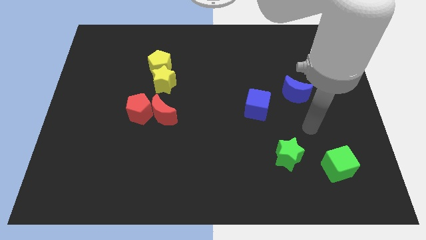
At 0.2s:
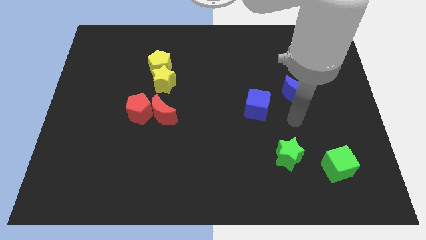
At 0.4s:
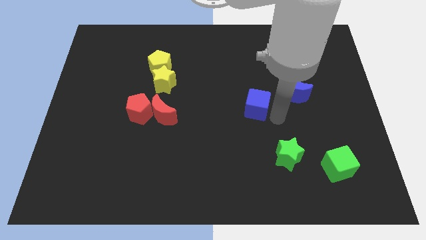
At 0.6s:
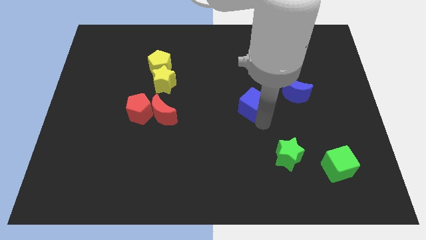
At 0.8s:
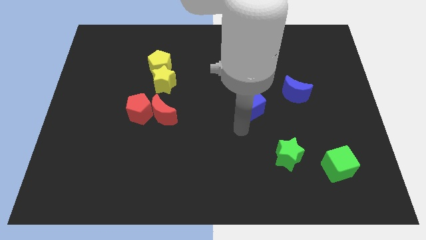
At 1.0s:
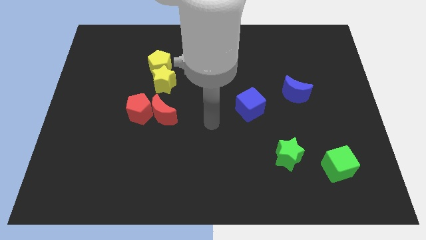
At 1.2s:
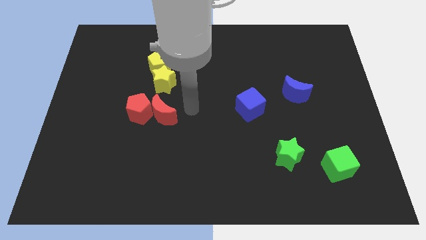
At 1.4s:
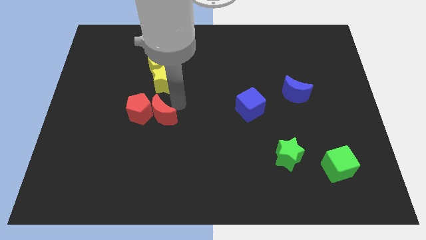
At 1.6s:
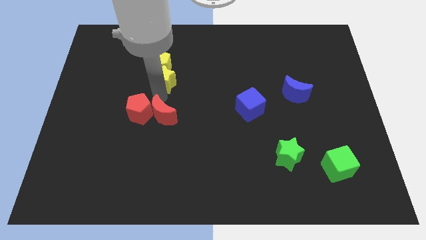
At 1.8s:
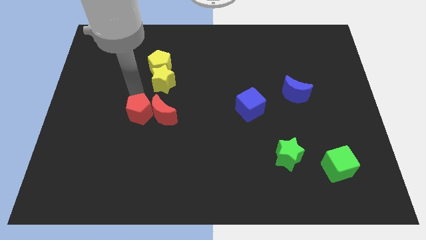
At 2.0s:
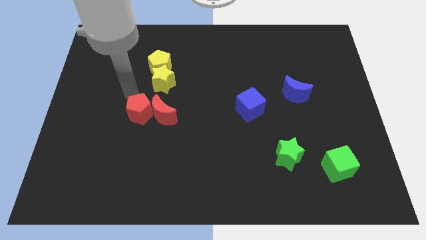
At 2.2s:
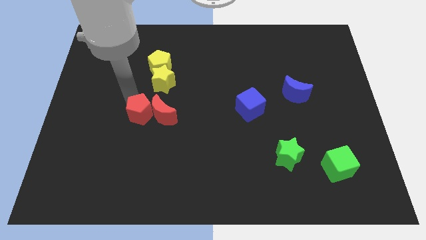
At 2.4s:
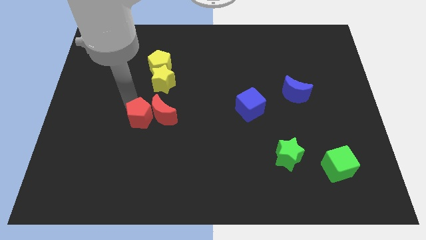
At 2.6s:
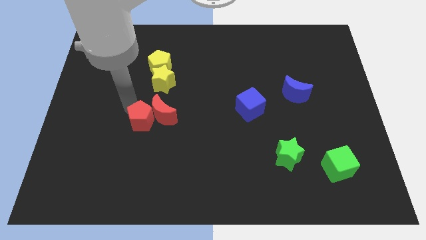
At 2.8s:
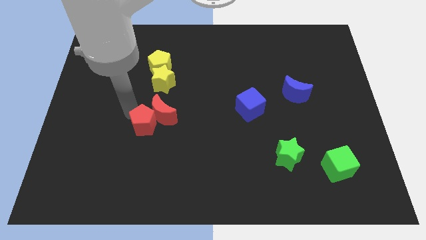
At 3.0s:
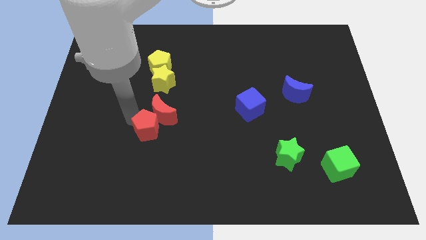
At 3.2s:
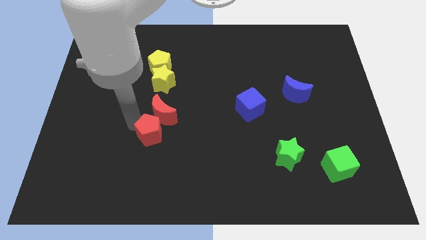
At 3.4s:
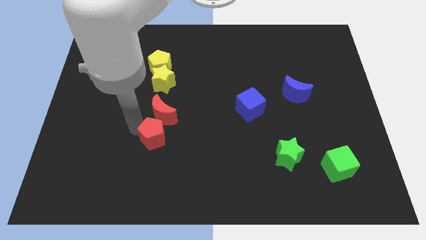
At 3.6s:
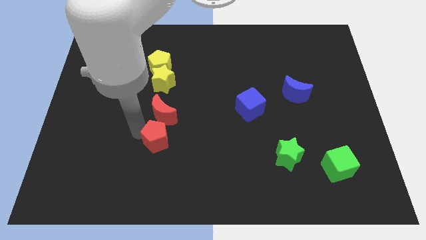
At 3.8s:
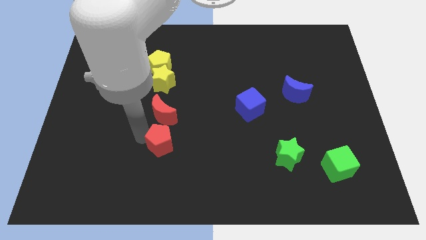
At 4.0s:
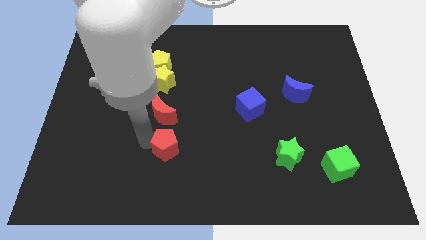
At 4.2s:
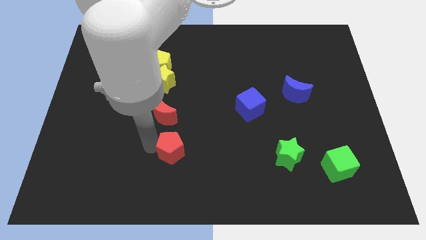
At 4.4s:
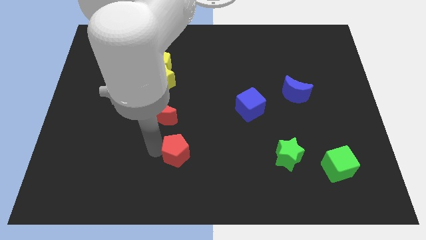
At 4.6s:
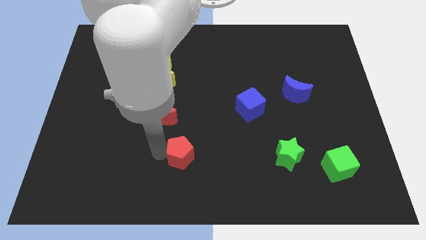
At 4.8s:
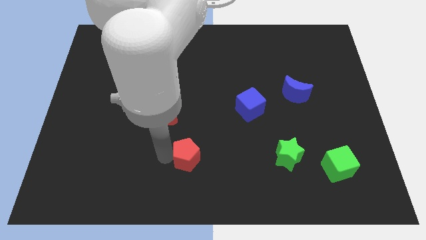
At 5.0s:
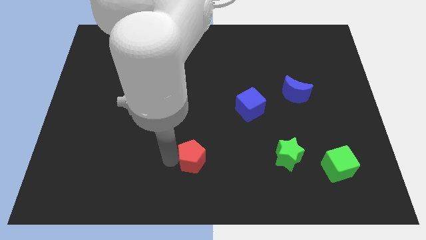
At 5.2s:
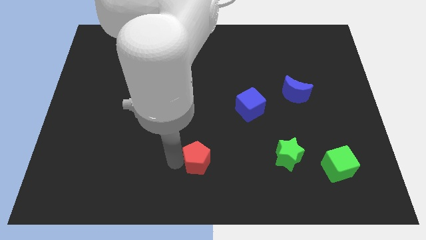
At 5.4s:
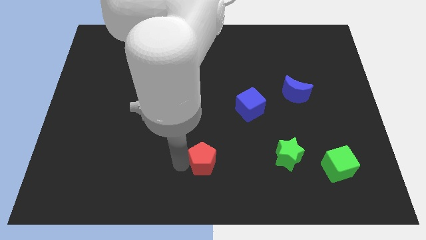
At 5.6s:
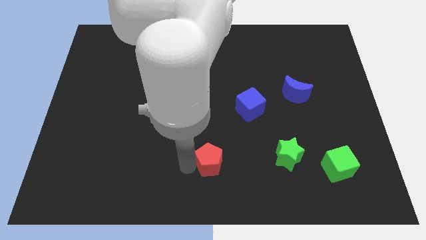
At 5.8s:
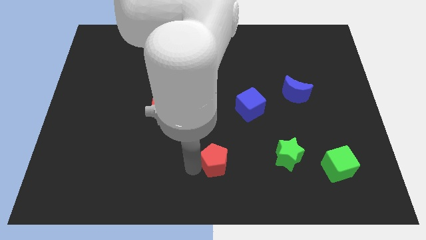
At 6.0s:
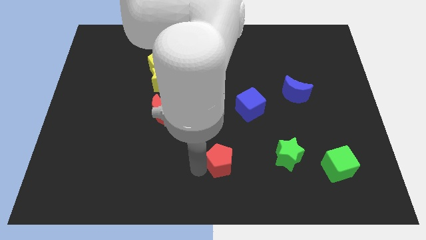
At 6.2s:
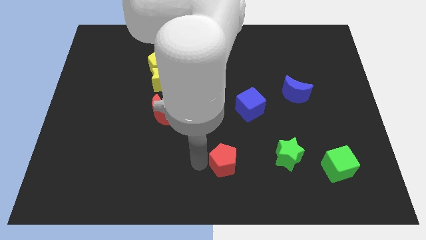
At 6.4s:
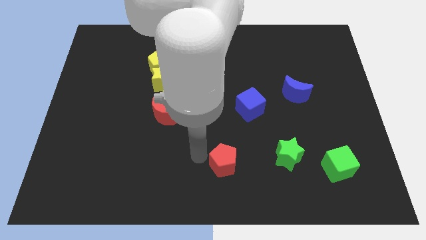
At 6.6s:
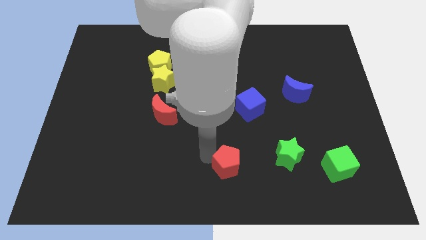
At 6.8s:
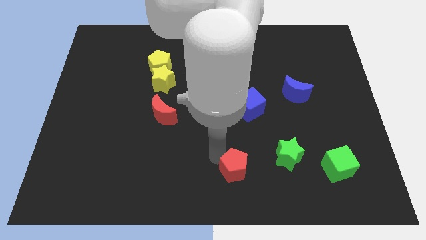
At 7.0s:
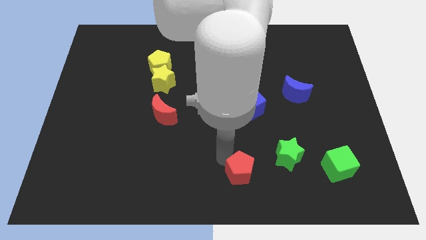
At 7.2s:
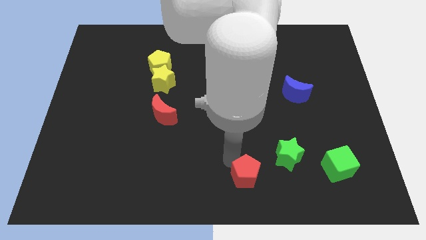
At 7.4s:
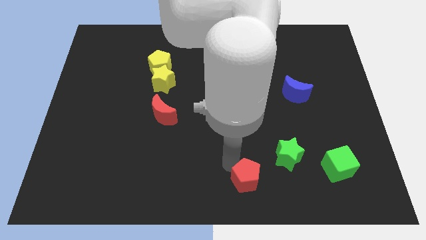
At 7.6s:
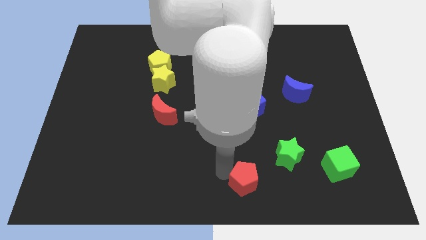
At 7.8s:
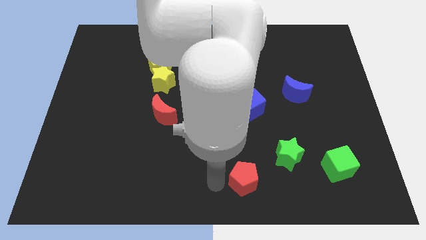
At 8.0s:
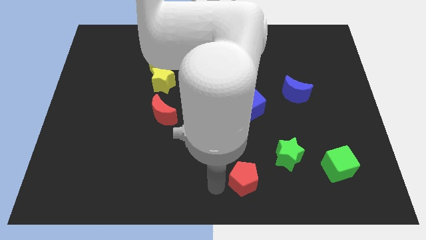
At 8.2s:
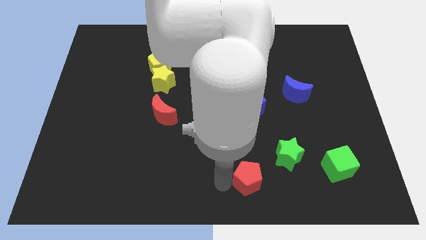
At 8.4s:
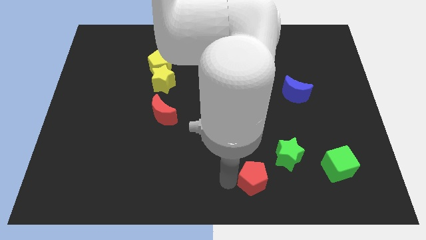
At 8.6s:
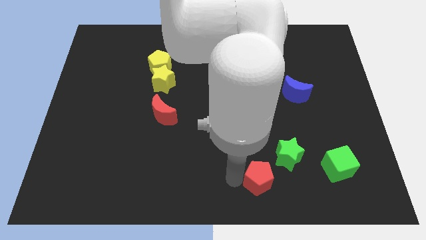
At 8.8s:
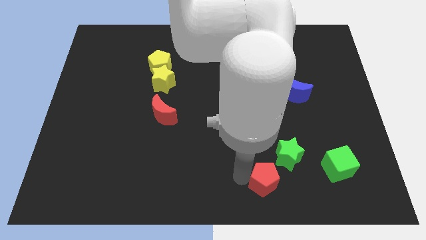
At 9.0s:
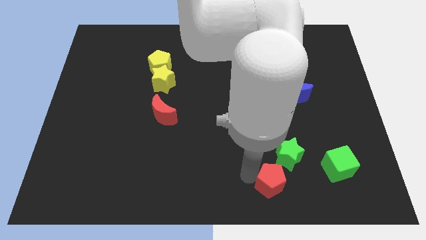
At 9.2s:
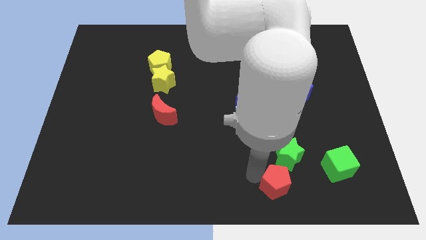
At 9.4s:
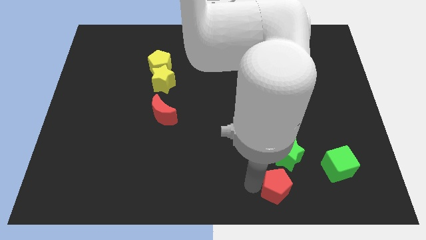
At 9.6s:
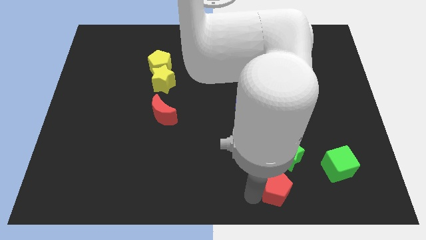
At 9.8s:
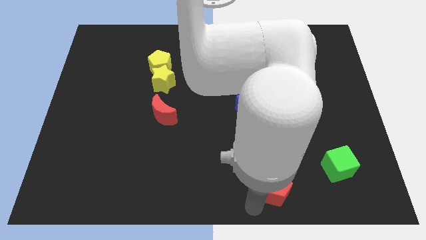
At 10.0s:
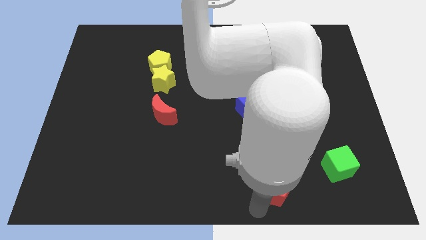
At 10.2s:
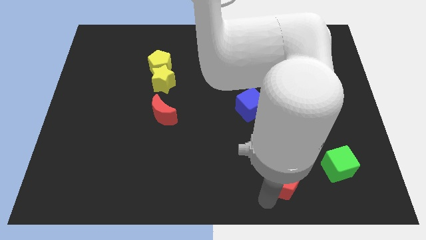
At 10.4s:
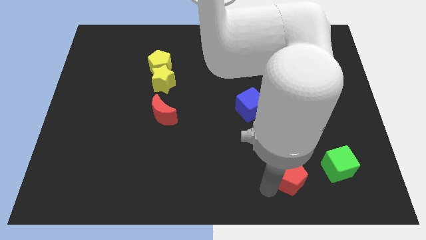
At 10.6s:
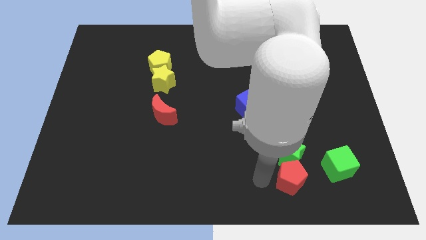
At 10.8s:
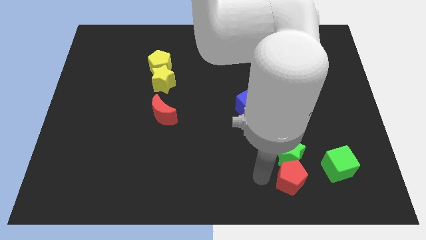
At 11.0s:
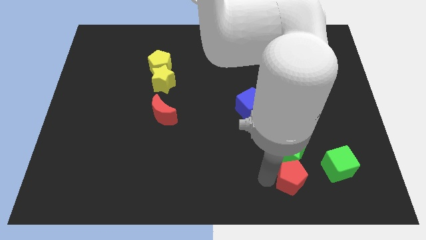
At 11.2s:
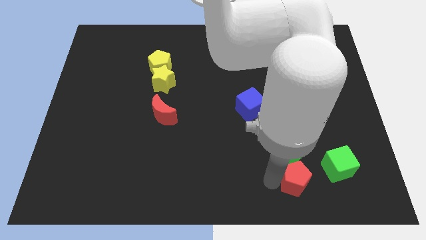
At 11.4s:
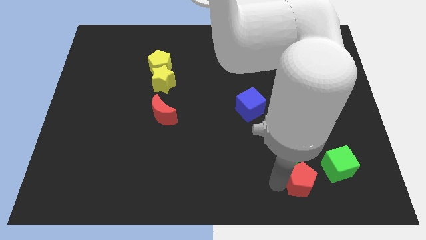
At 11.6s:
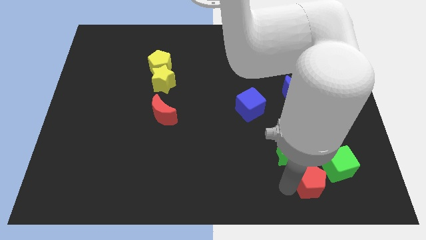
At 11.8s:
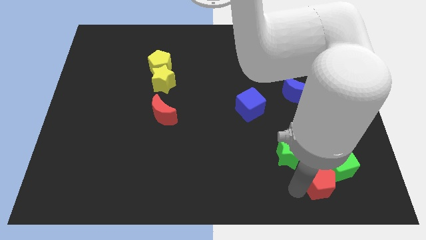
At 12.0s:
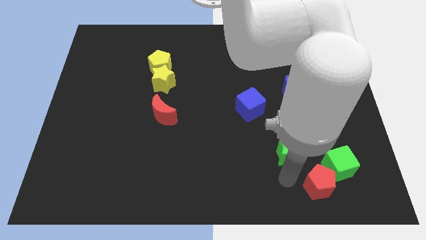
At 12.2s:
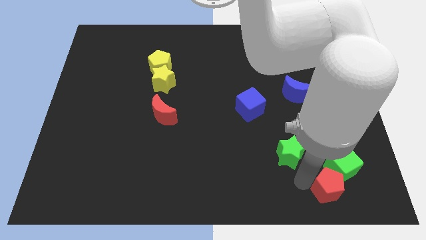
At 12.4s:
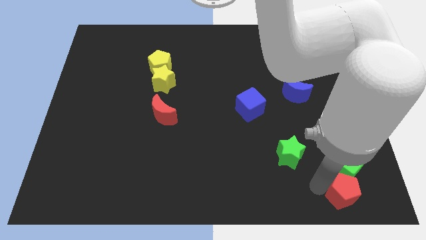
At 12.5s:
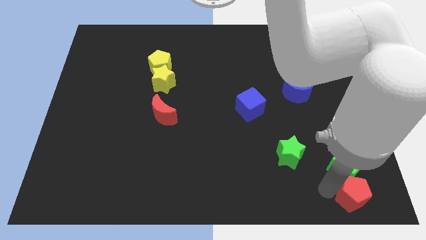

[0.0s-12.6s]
slide the red pentagon to the bottom right
